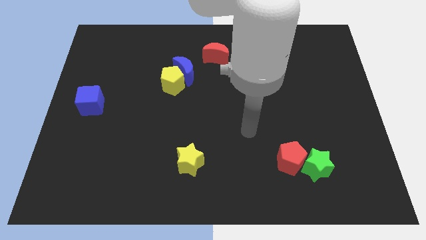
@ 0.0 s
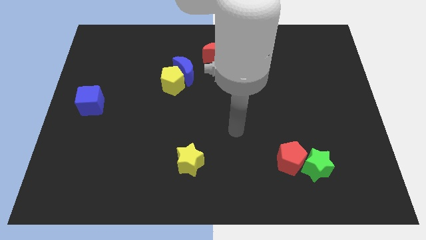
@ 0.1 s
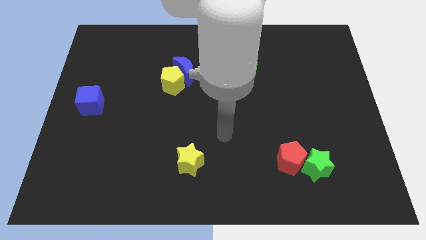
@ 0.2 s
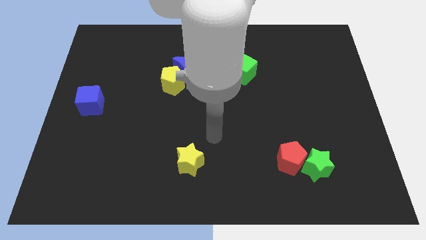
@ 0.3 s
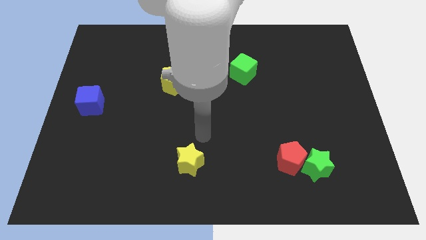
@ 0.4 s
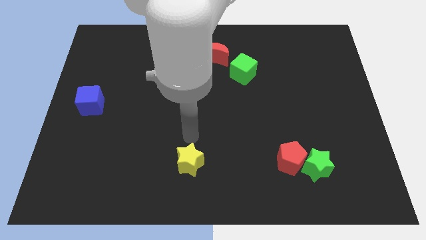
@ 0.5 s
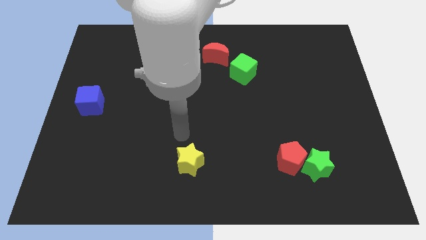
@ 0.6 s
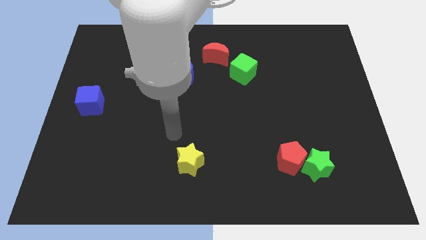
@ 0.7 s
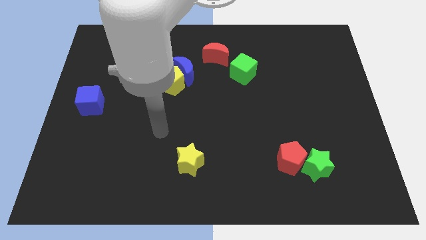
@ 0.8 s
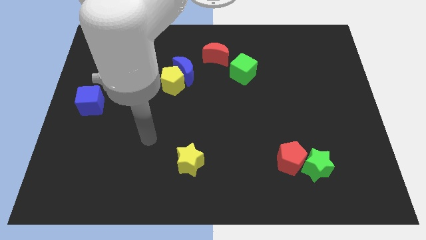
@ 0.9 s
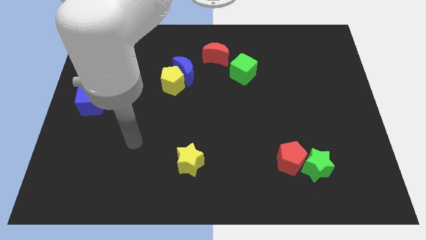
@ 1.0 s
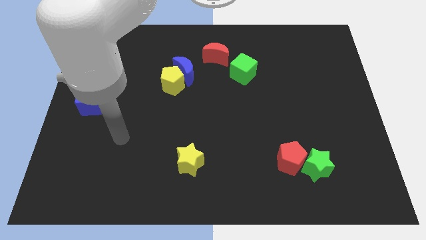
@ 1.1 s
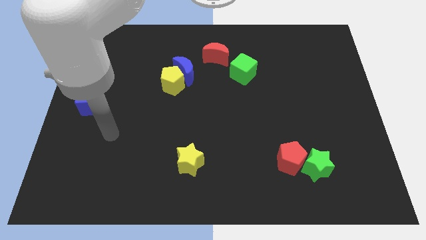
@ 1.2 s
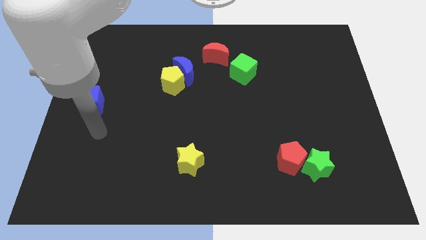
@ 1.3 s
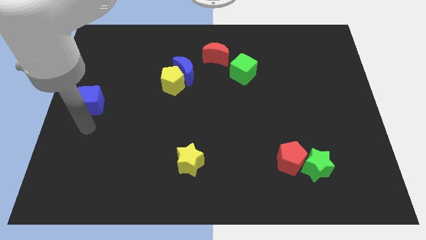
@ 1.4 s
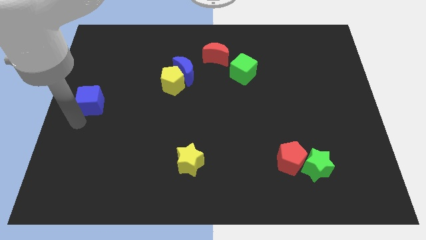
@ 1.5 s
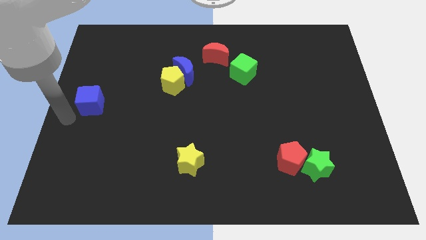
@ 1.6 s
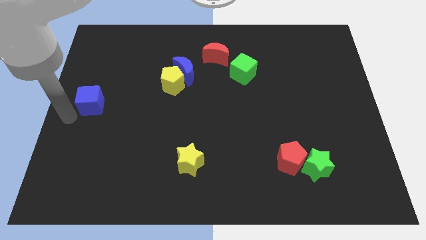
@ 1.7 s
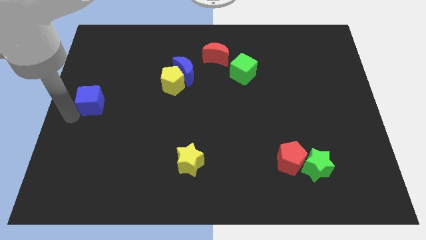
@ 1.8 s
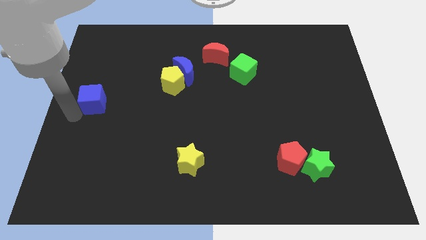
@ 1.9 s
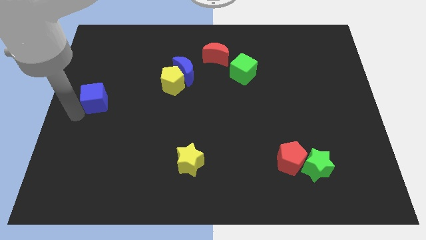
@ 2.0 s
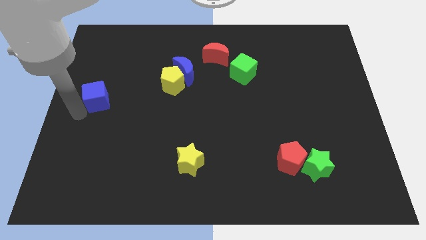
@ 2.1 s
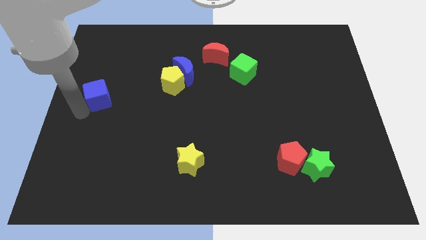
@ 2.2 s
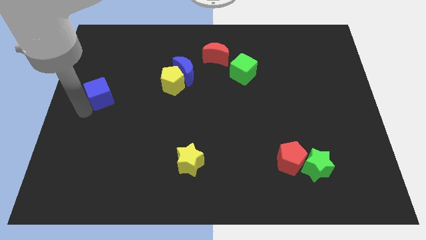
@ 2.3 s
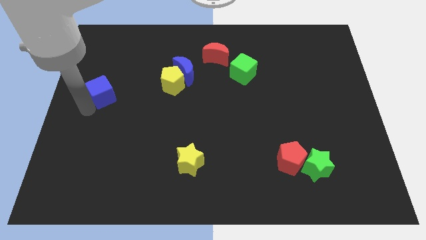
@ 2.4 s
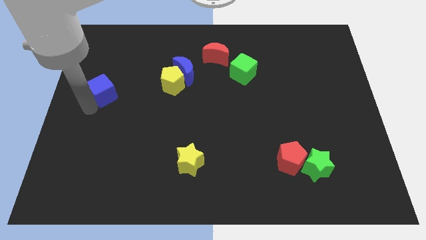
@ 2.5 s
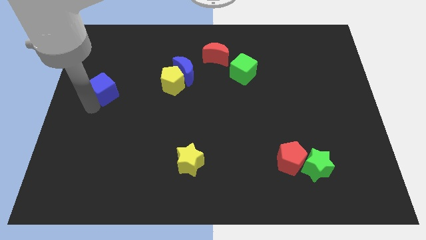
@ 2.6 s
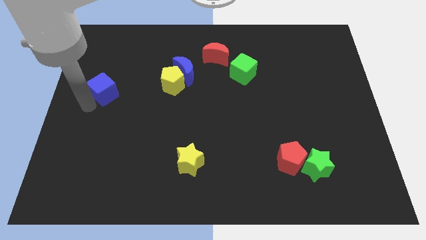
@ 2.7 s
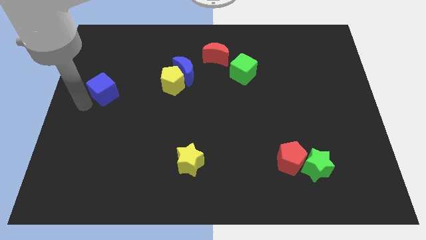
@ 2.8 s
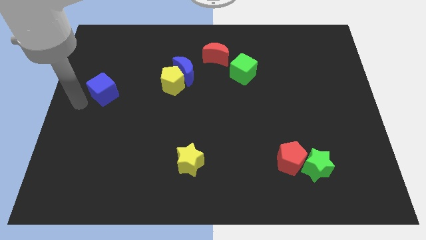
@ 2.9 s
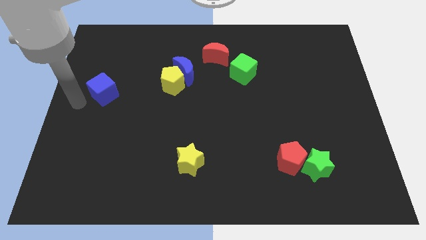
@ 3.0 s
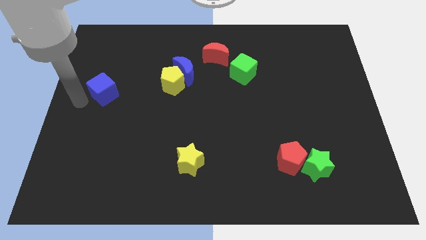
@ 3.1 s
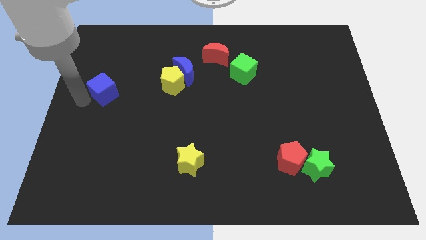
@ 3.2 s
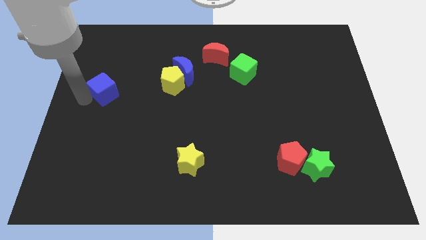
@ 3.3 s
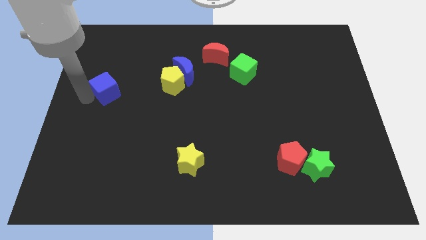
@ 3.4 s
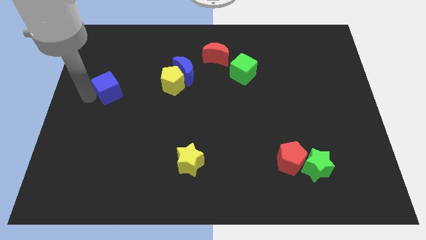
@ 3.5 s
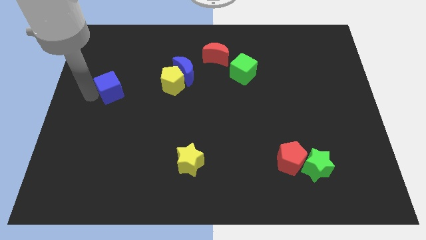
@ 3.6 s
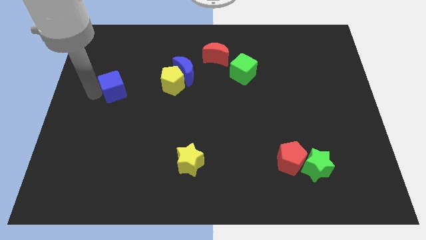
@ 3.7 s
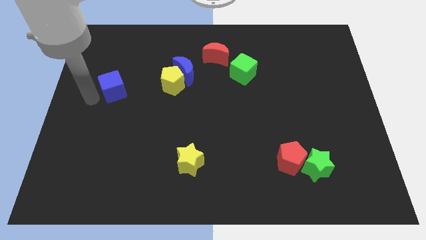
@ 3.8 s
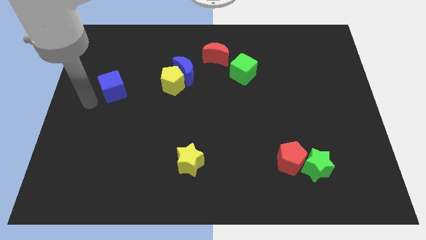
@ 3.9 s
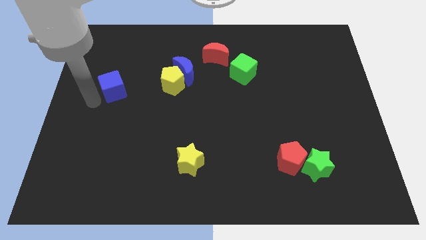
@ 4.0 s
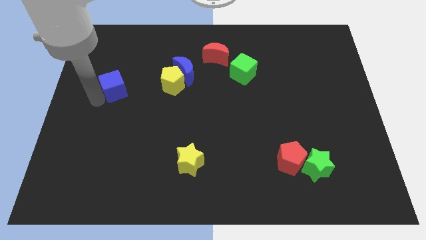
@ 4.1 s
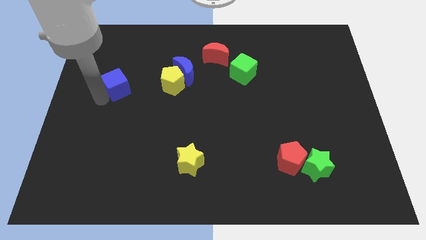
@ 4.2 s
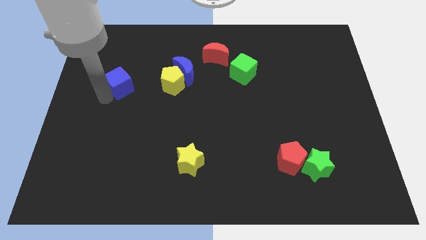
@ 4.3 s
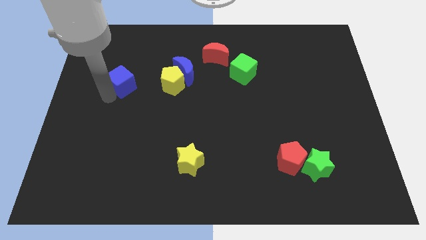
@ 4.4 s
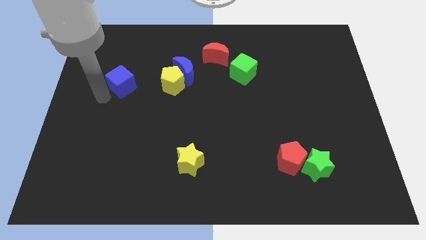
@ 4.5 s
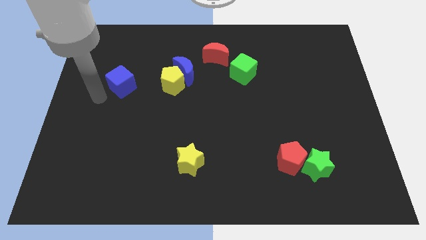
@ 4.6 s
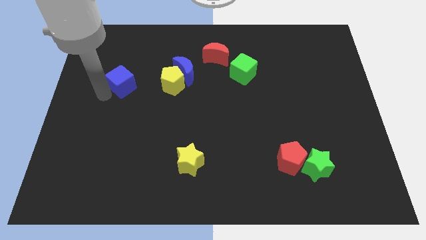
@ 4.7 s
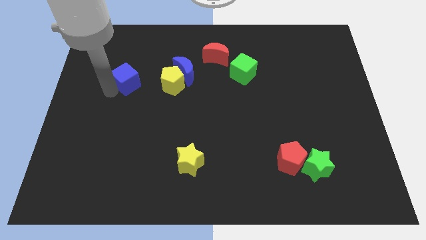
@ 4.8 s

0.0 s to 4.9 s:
push the blue cube left of the blue moon

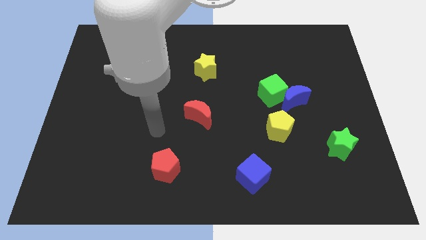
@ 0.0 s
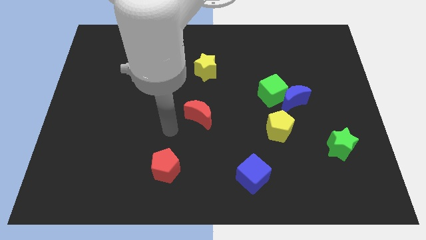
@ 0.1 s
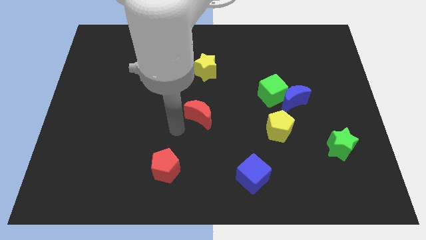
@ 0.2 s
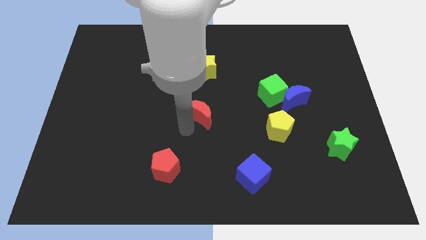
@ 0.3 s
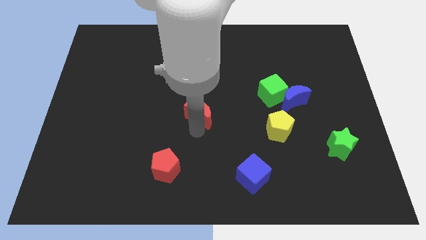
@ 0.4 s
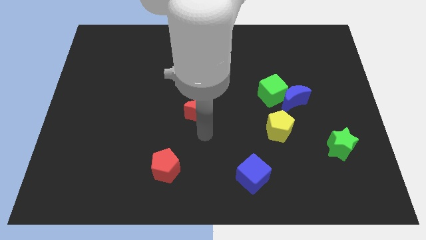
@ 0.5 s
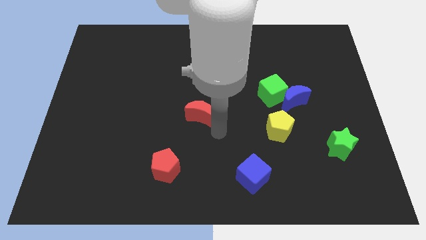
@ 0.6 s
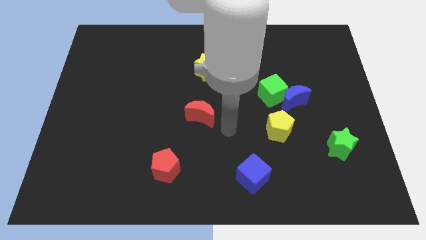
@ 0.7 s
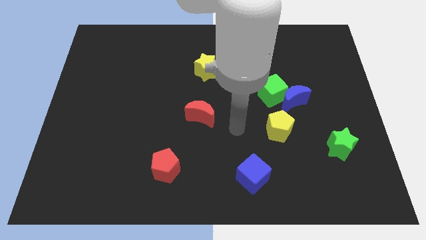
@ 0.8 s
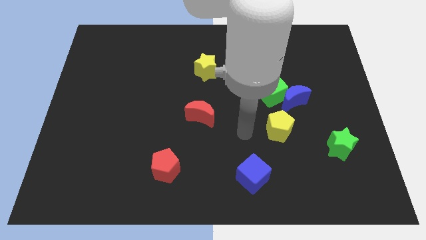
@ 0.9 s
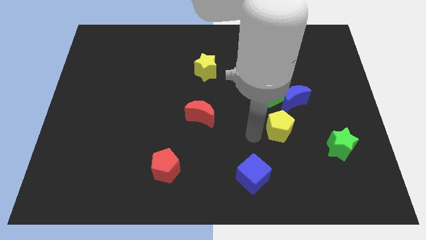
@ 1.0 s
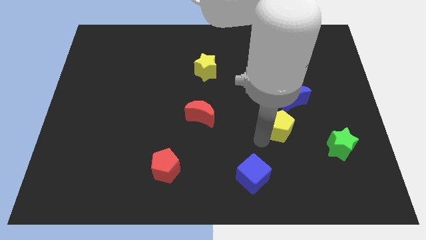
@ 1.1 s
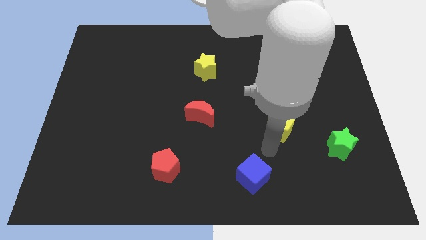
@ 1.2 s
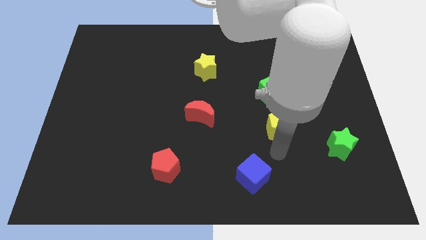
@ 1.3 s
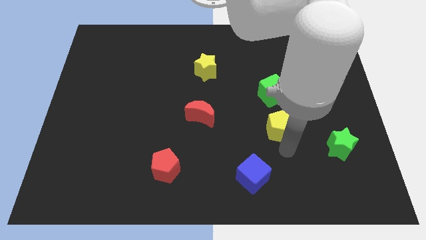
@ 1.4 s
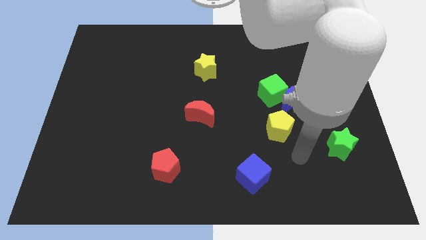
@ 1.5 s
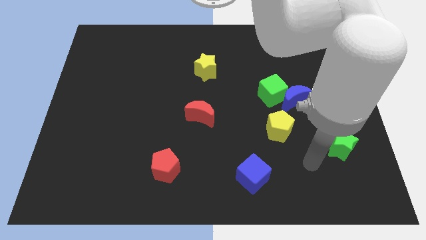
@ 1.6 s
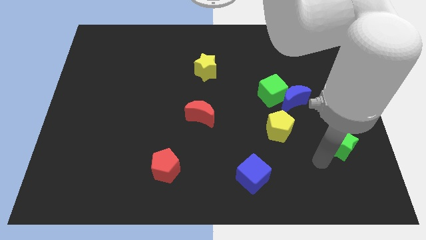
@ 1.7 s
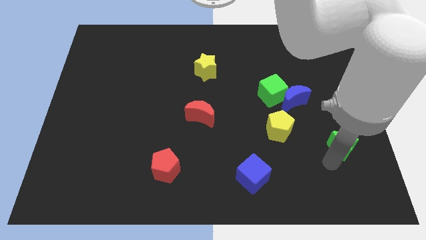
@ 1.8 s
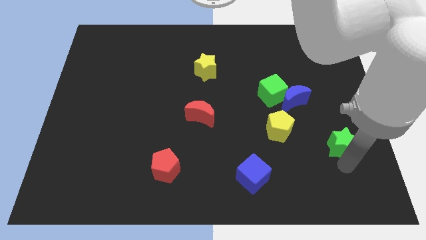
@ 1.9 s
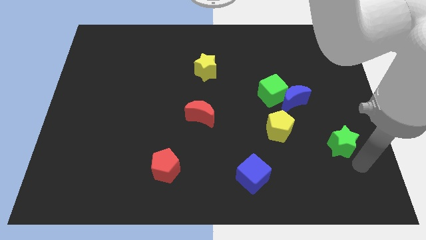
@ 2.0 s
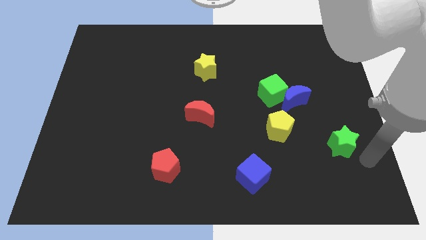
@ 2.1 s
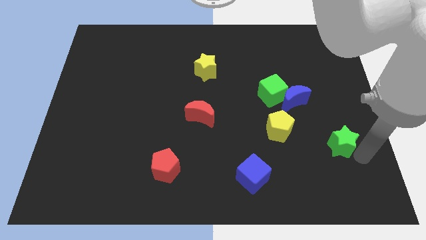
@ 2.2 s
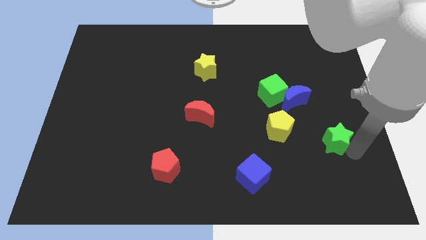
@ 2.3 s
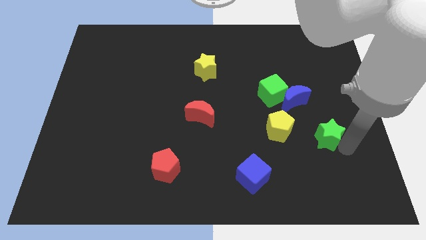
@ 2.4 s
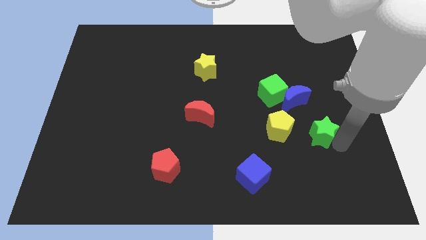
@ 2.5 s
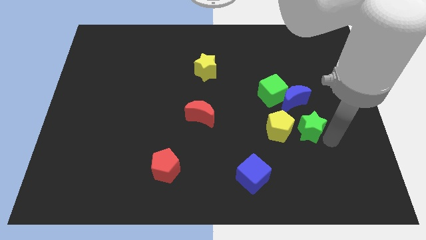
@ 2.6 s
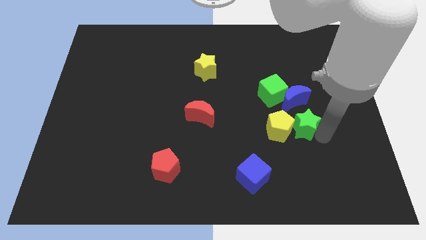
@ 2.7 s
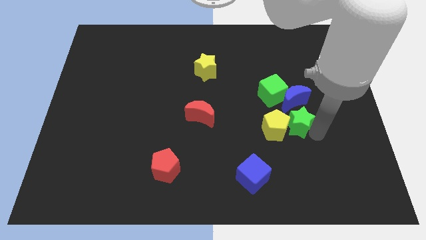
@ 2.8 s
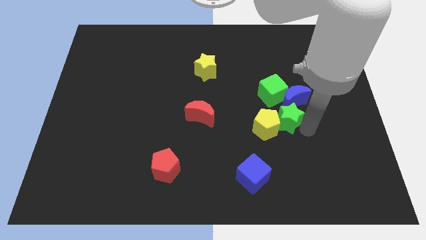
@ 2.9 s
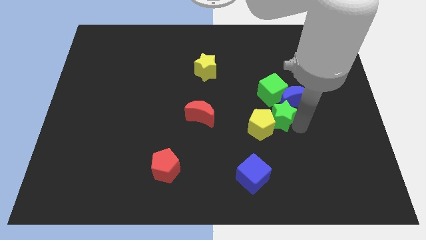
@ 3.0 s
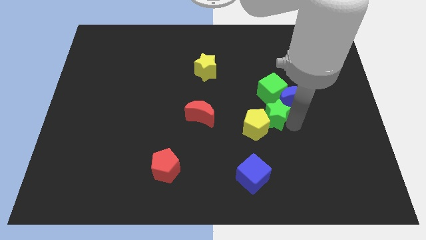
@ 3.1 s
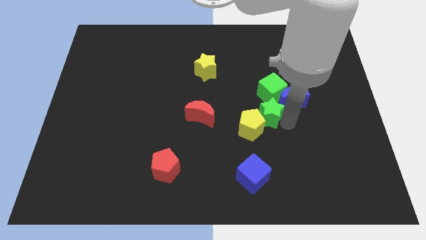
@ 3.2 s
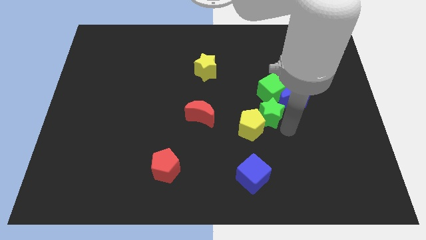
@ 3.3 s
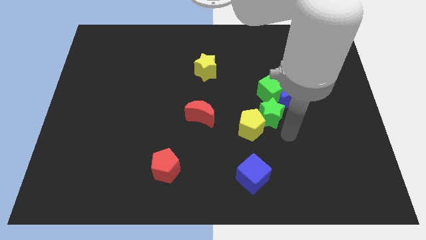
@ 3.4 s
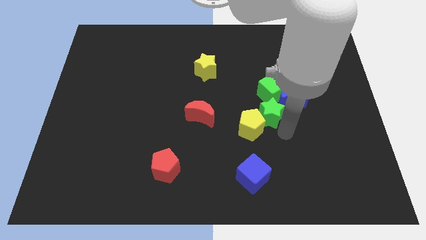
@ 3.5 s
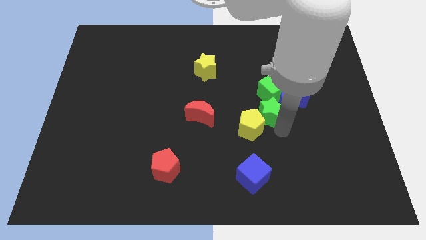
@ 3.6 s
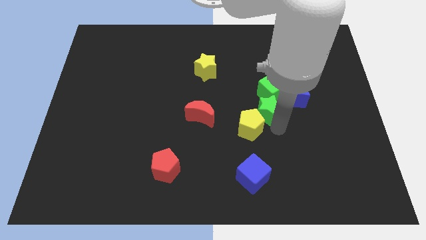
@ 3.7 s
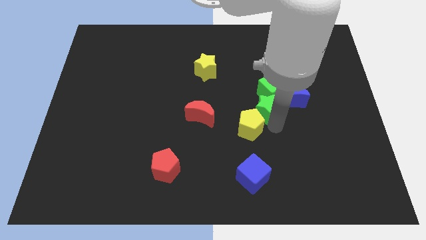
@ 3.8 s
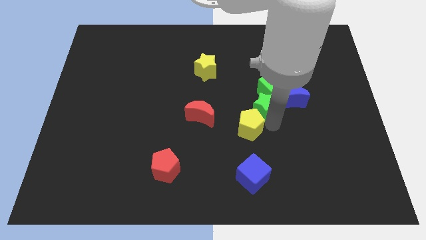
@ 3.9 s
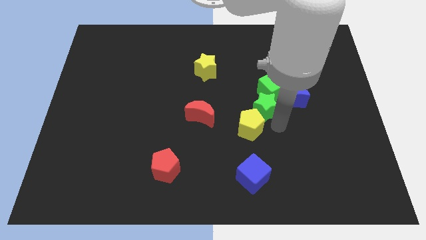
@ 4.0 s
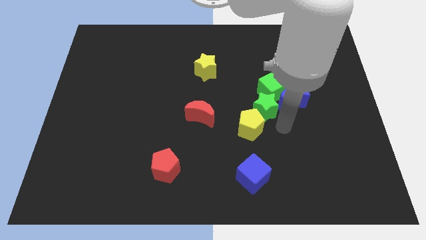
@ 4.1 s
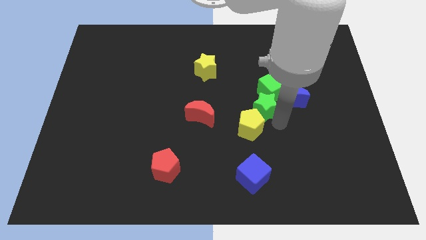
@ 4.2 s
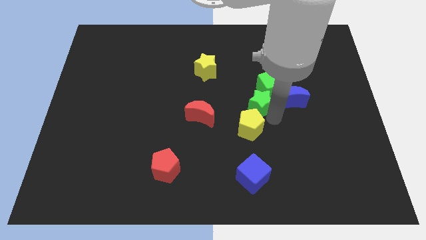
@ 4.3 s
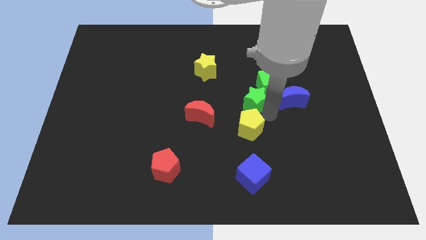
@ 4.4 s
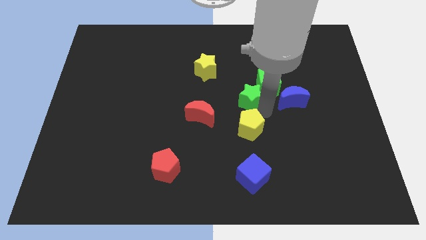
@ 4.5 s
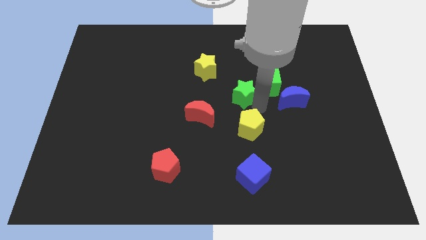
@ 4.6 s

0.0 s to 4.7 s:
put the green star diagonally down and to the right of the yellow star
